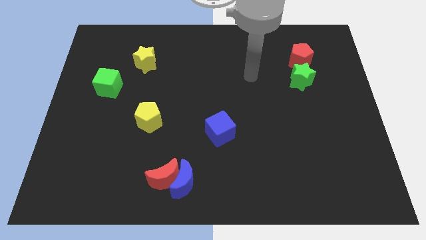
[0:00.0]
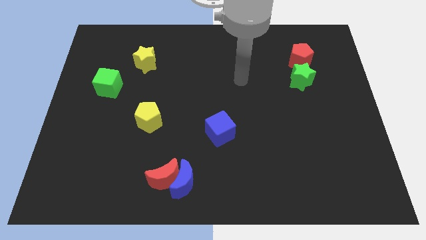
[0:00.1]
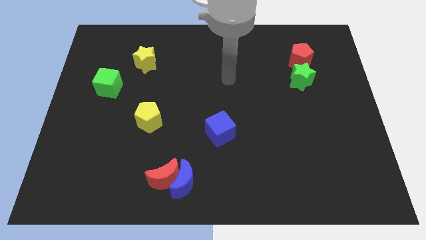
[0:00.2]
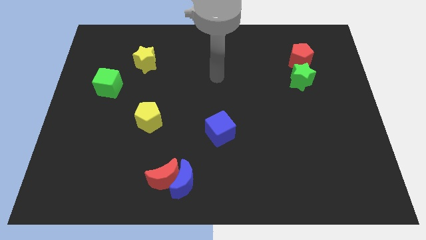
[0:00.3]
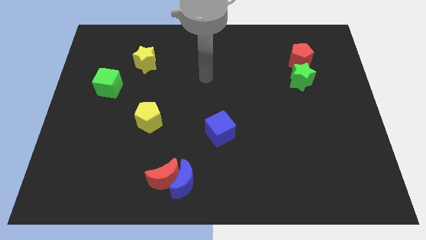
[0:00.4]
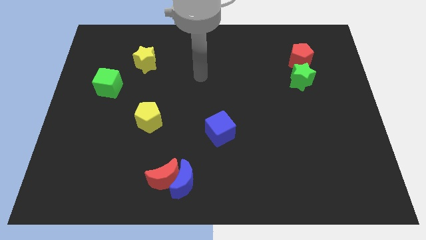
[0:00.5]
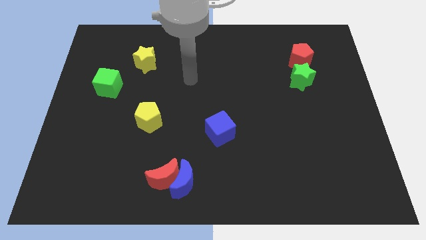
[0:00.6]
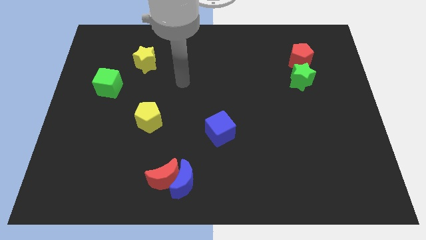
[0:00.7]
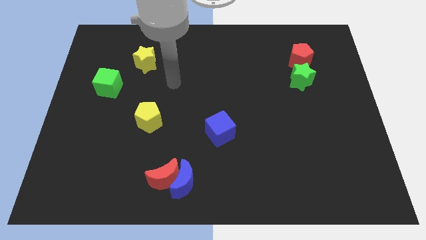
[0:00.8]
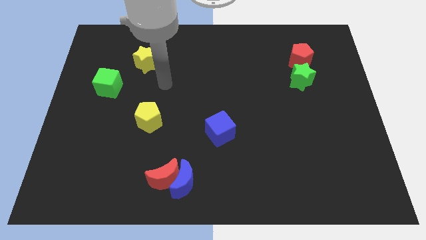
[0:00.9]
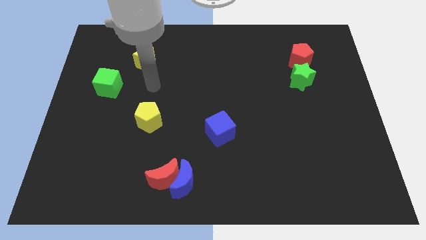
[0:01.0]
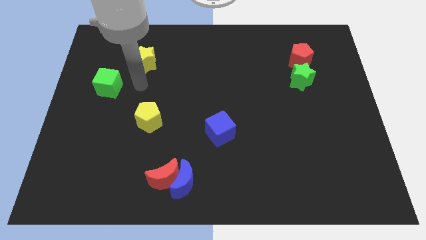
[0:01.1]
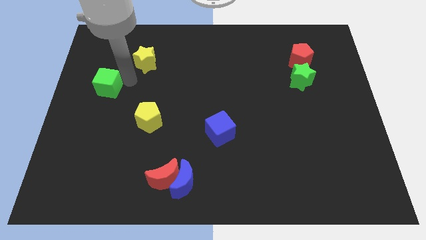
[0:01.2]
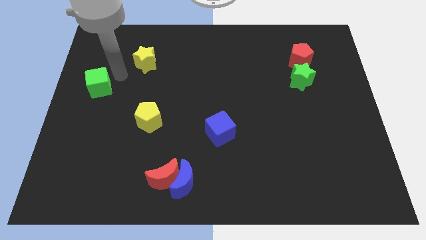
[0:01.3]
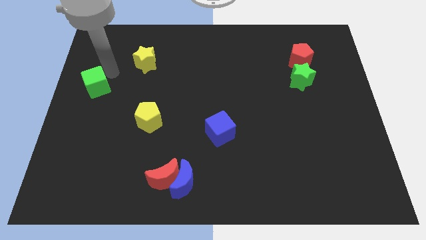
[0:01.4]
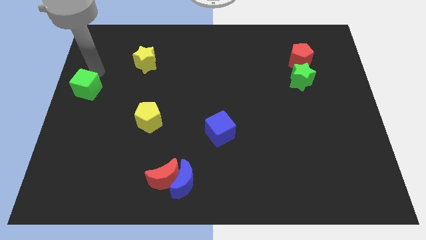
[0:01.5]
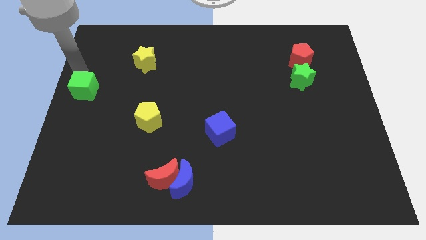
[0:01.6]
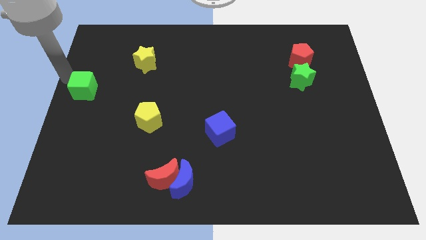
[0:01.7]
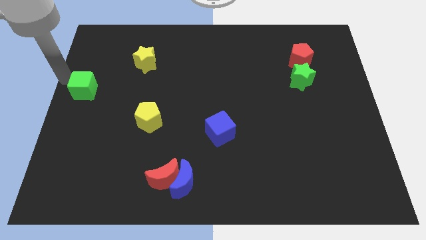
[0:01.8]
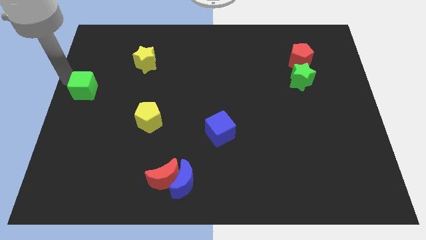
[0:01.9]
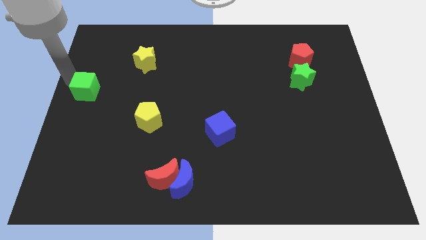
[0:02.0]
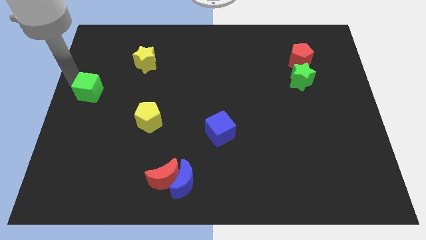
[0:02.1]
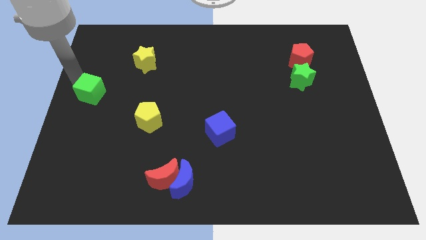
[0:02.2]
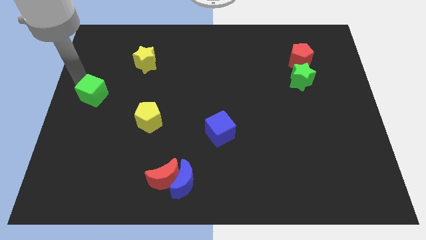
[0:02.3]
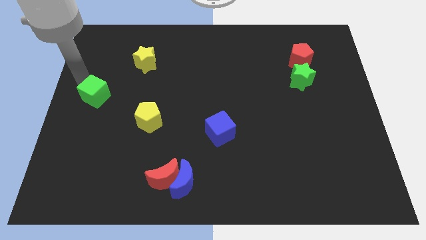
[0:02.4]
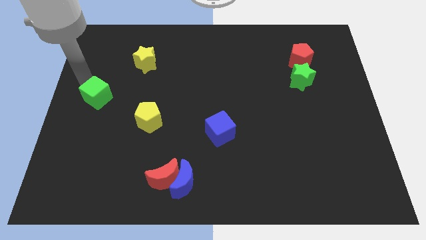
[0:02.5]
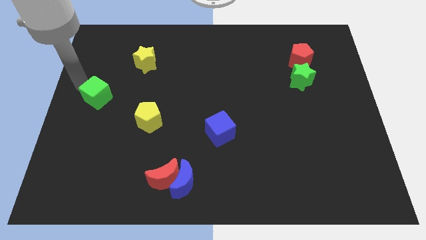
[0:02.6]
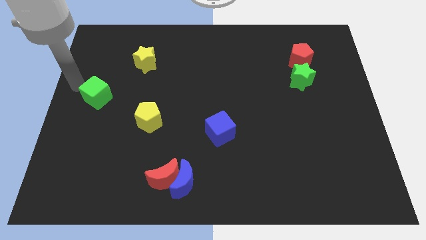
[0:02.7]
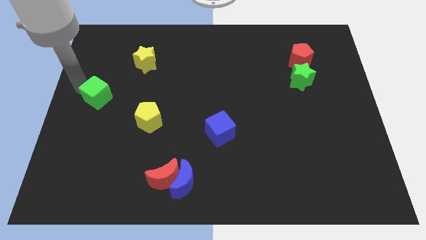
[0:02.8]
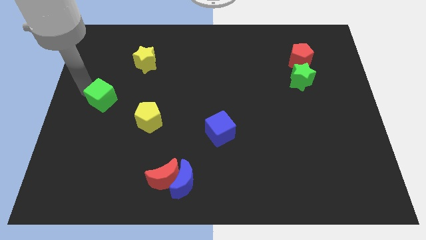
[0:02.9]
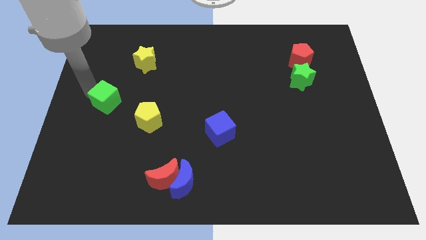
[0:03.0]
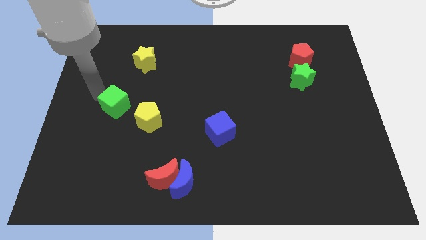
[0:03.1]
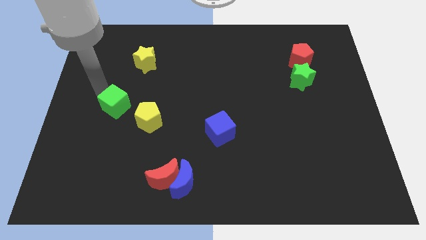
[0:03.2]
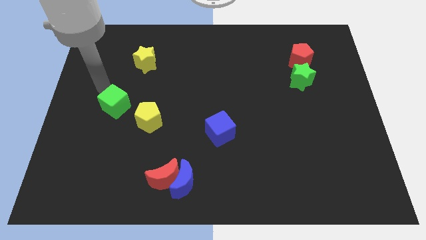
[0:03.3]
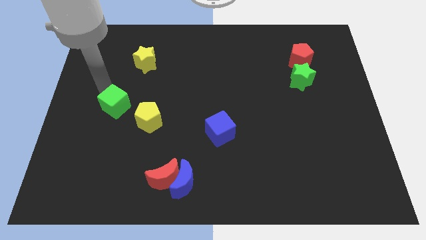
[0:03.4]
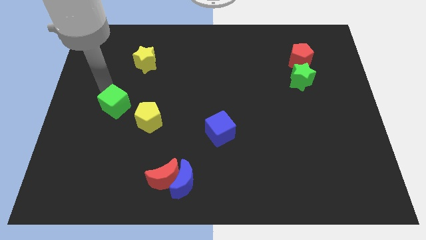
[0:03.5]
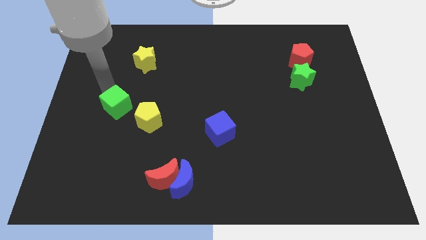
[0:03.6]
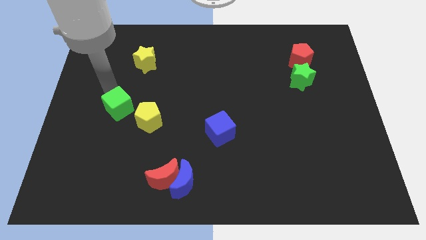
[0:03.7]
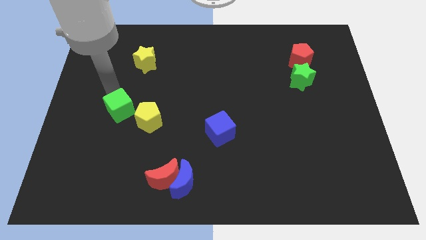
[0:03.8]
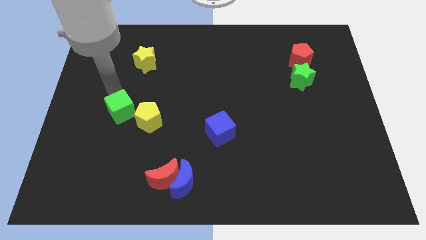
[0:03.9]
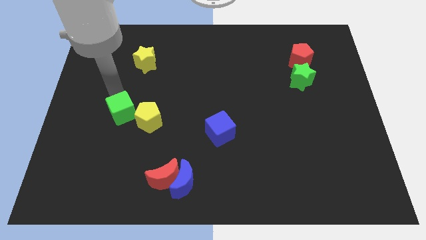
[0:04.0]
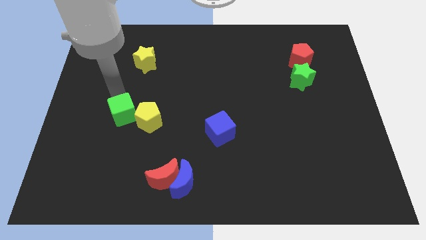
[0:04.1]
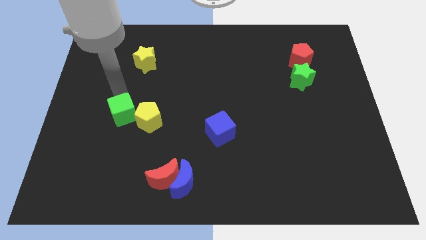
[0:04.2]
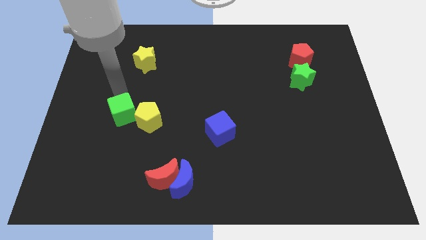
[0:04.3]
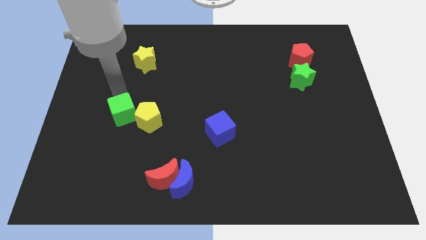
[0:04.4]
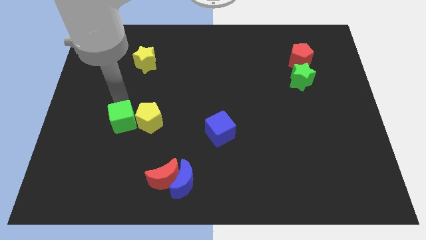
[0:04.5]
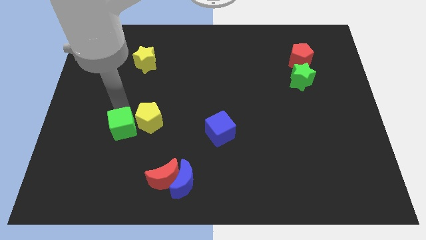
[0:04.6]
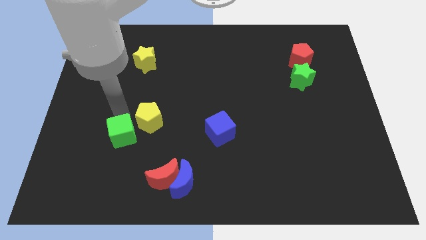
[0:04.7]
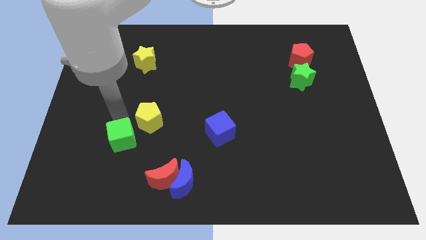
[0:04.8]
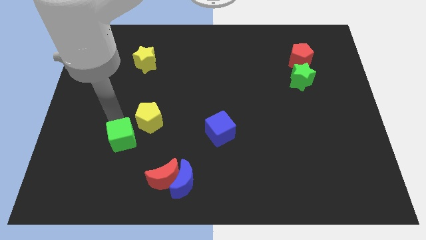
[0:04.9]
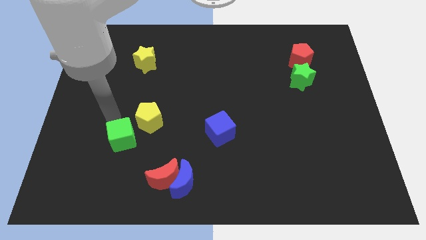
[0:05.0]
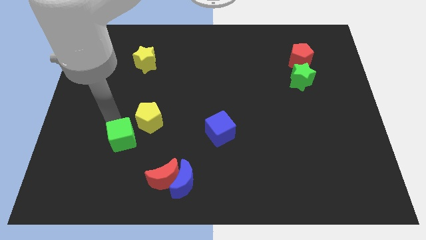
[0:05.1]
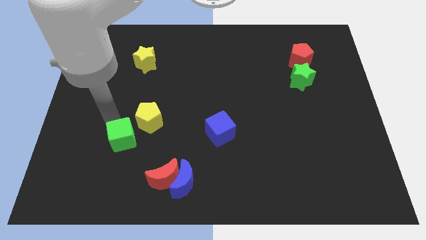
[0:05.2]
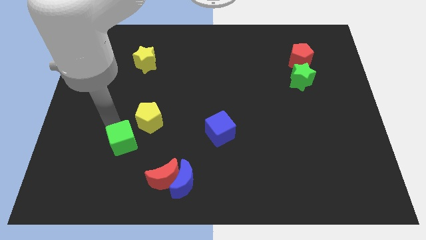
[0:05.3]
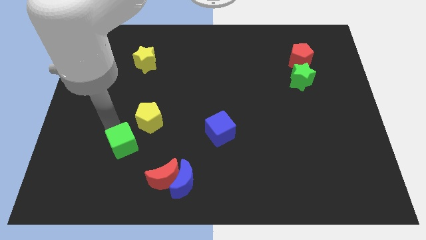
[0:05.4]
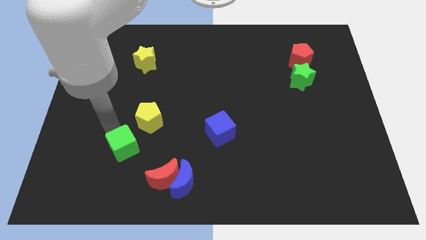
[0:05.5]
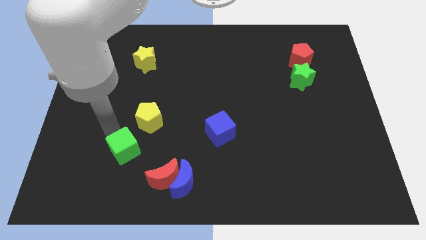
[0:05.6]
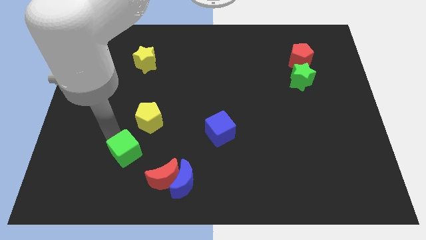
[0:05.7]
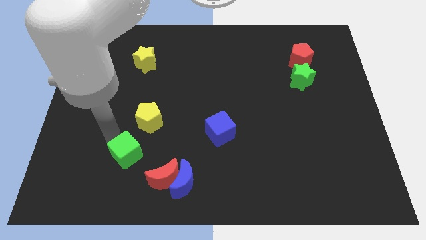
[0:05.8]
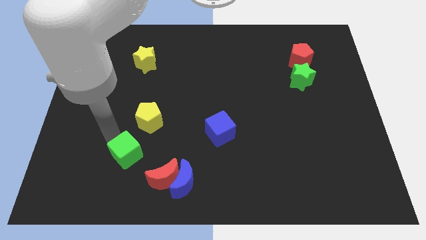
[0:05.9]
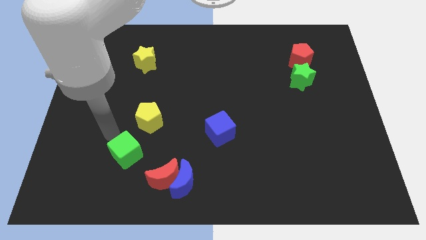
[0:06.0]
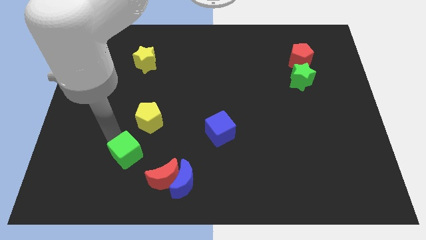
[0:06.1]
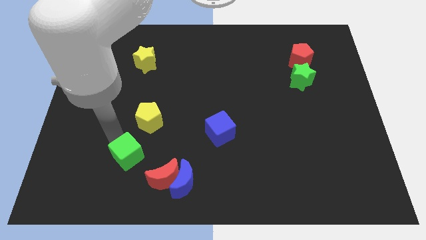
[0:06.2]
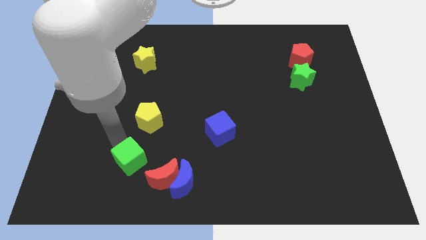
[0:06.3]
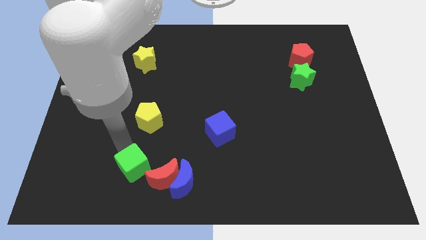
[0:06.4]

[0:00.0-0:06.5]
push the green cube to the left side of the blue moon
